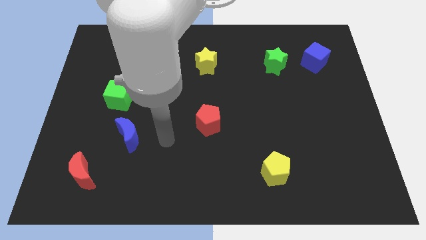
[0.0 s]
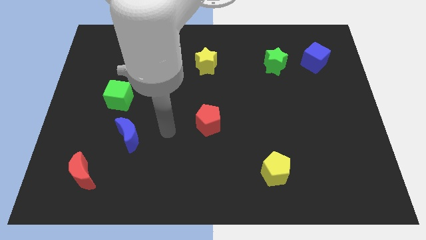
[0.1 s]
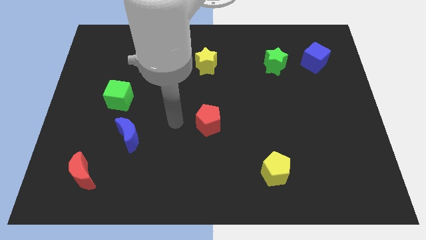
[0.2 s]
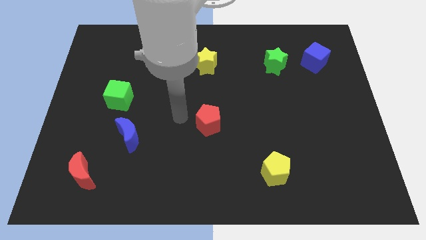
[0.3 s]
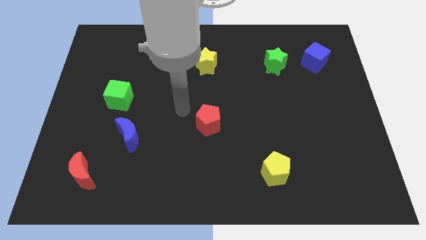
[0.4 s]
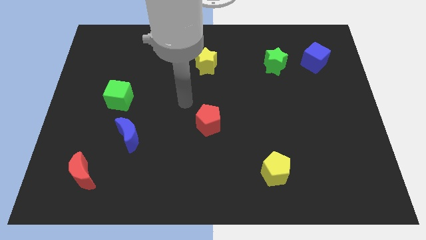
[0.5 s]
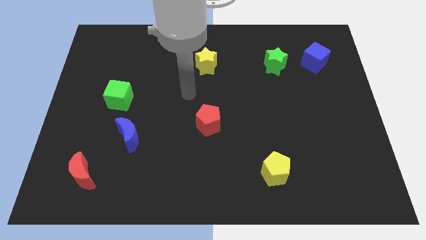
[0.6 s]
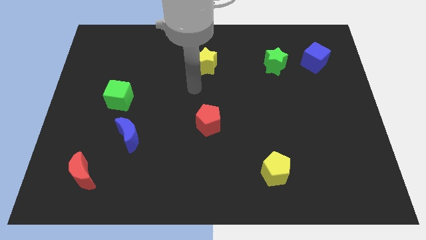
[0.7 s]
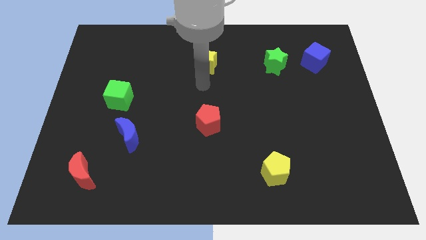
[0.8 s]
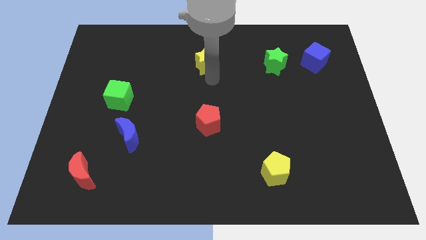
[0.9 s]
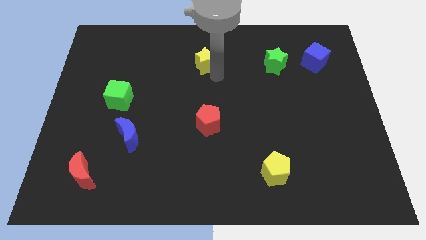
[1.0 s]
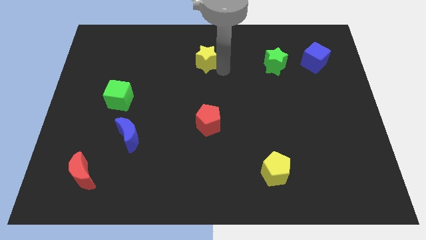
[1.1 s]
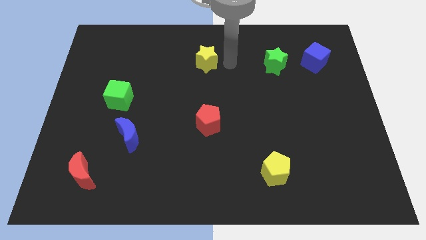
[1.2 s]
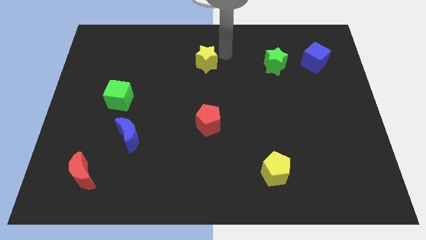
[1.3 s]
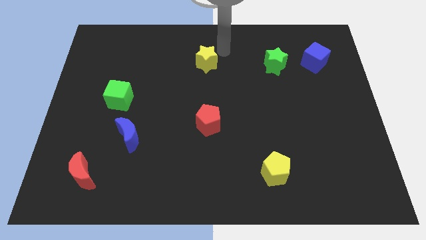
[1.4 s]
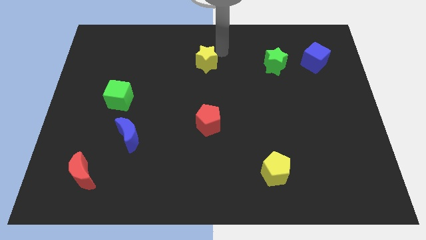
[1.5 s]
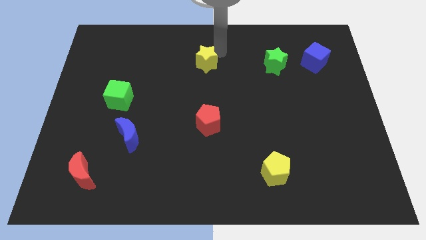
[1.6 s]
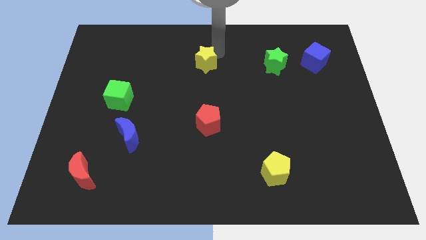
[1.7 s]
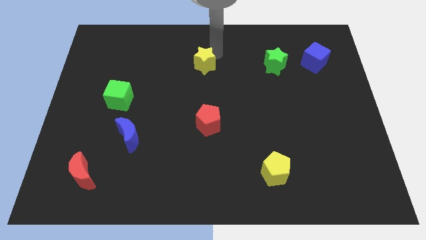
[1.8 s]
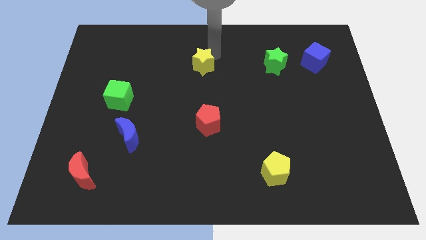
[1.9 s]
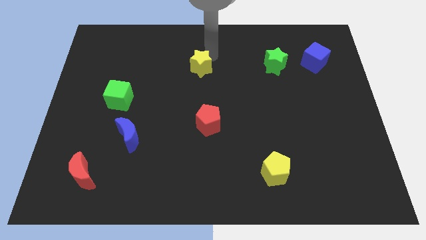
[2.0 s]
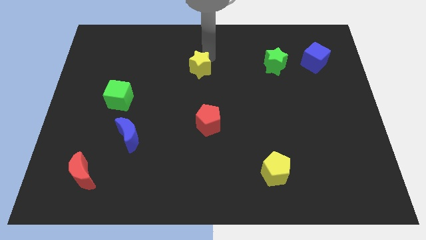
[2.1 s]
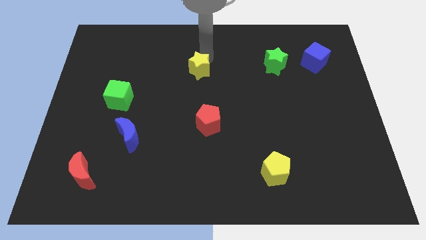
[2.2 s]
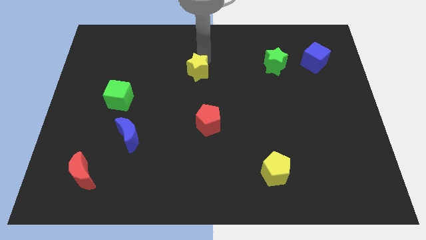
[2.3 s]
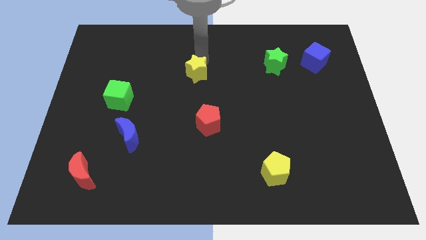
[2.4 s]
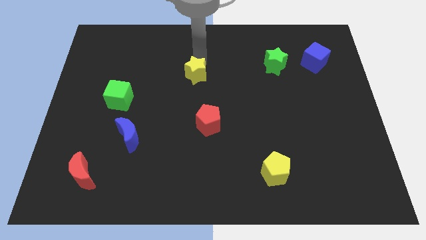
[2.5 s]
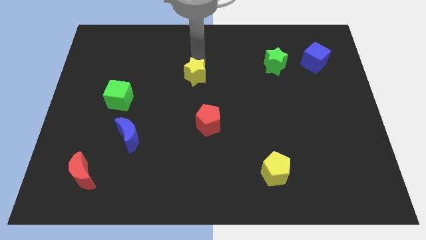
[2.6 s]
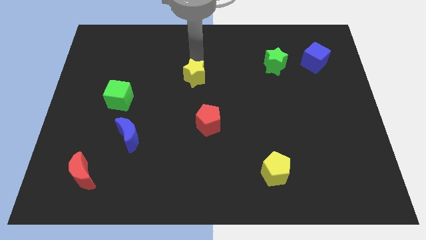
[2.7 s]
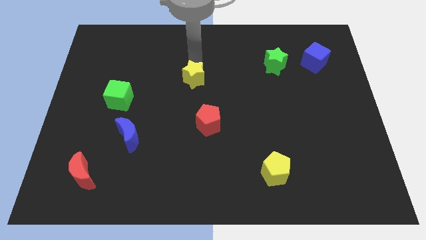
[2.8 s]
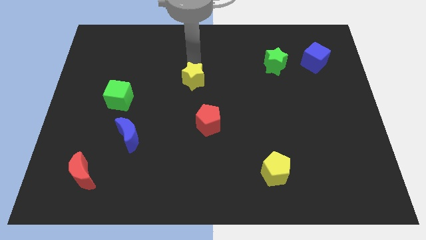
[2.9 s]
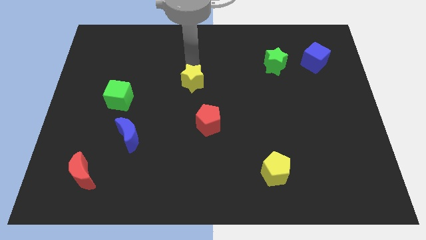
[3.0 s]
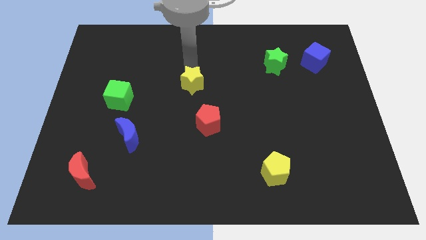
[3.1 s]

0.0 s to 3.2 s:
push the yellow star a little bit down and then left

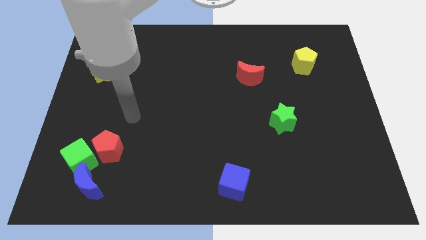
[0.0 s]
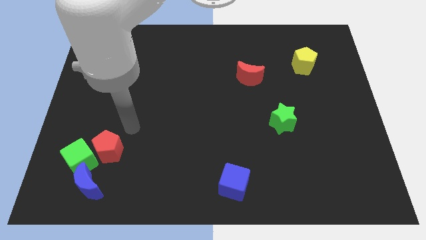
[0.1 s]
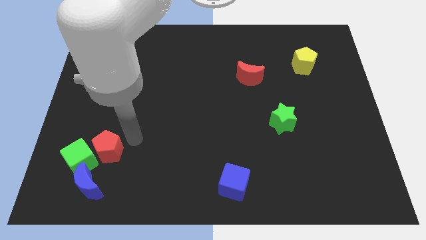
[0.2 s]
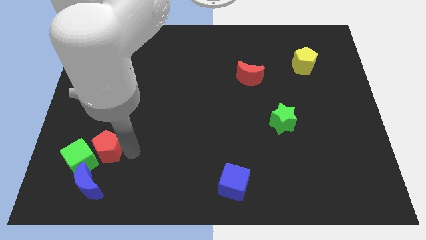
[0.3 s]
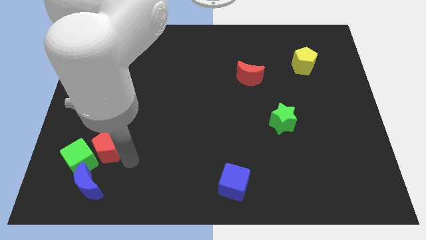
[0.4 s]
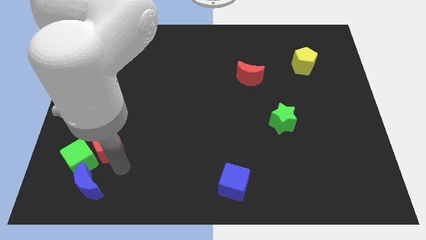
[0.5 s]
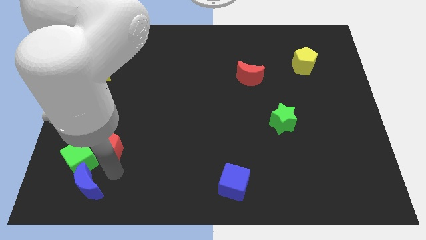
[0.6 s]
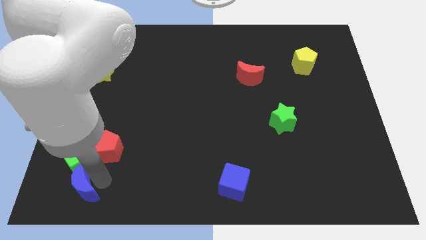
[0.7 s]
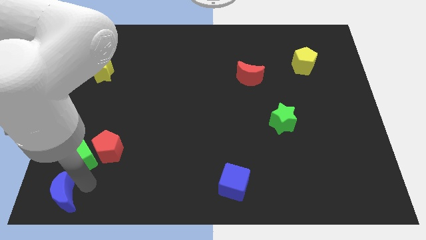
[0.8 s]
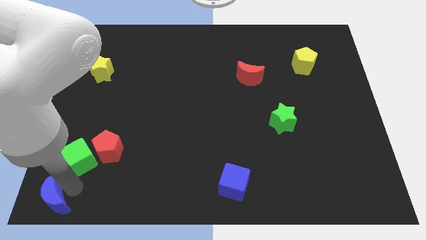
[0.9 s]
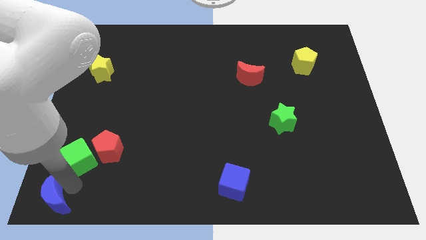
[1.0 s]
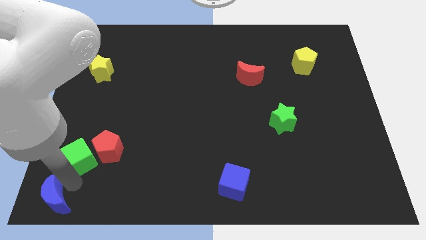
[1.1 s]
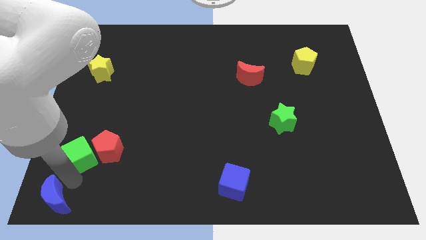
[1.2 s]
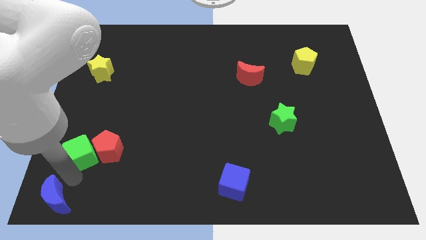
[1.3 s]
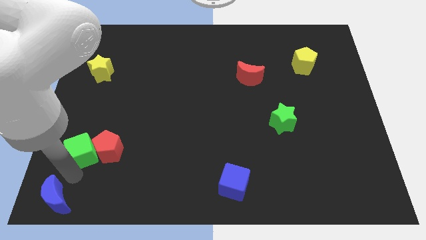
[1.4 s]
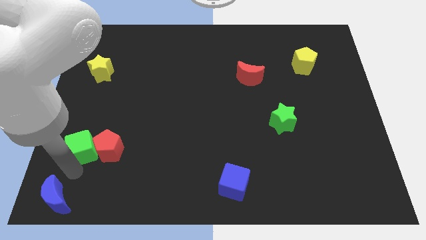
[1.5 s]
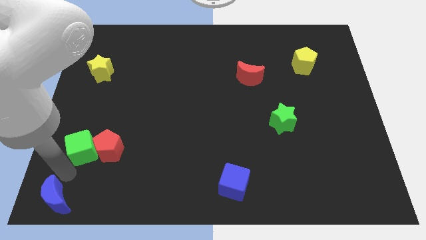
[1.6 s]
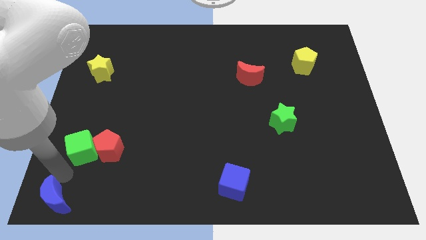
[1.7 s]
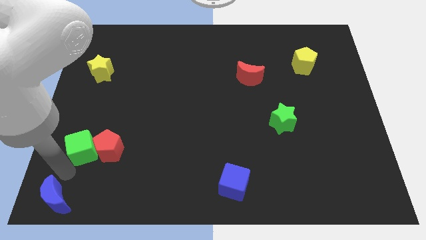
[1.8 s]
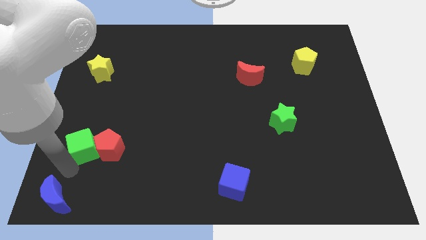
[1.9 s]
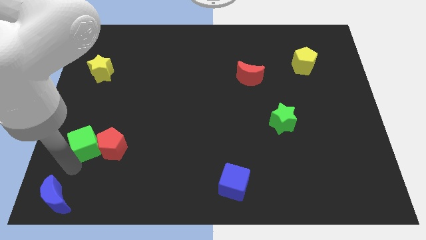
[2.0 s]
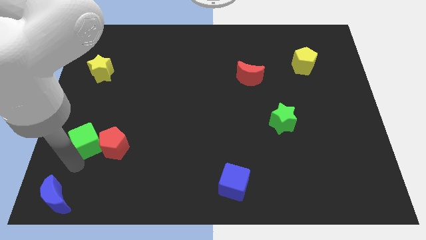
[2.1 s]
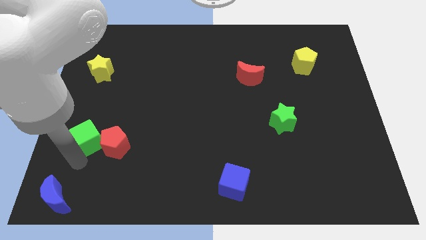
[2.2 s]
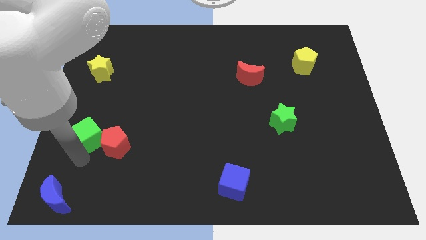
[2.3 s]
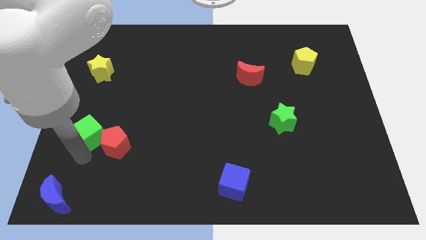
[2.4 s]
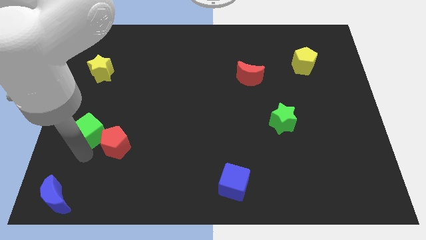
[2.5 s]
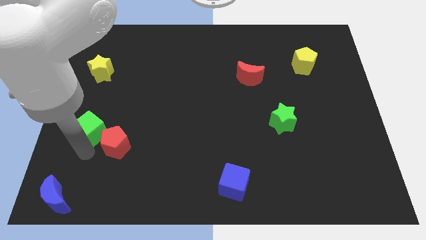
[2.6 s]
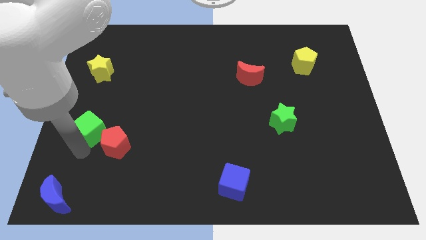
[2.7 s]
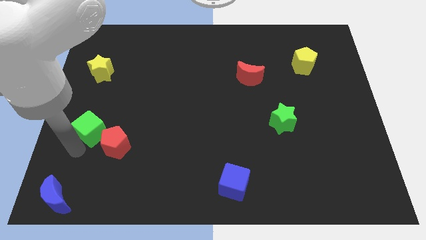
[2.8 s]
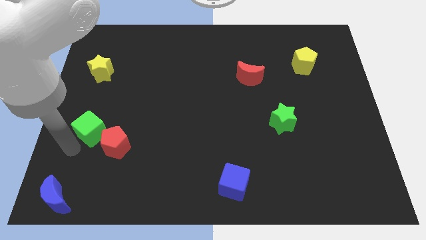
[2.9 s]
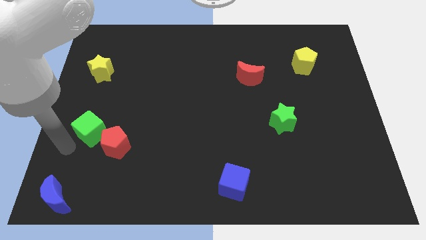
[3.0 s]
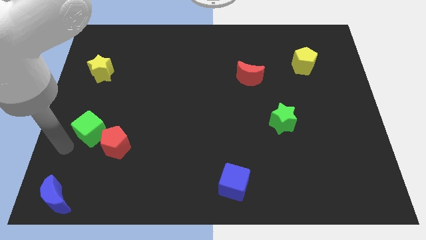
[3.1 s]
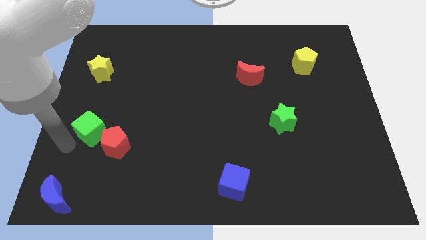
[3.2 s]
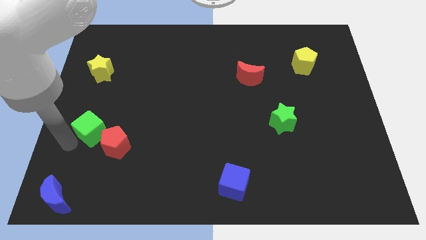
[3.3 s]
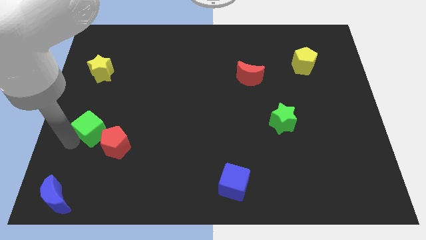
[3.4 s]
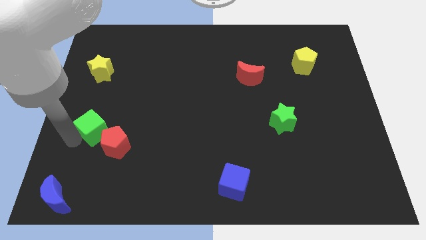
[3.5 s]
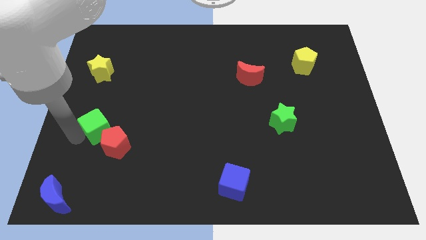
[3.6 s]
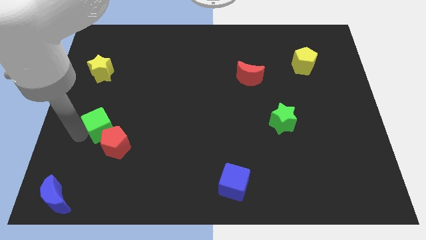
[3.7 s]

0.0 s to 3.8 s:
move the green cube slightly diagonally up and right

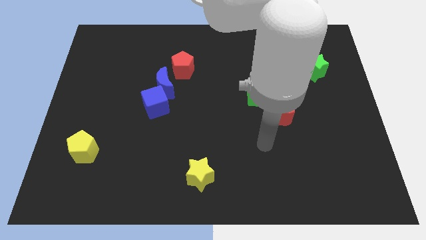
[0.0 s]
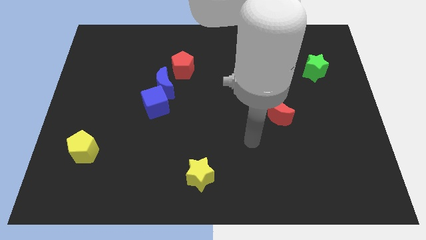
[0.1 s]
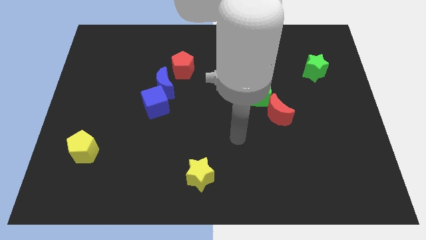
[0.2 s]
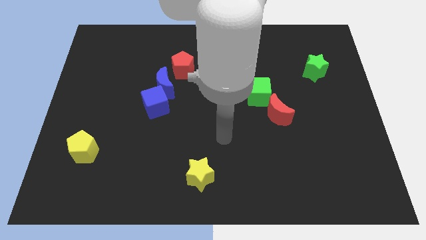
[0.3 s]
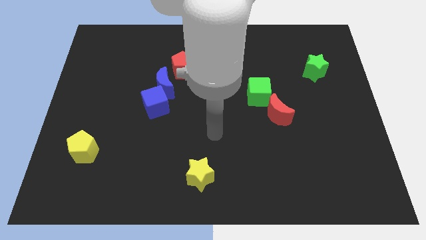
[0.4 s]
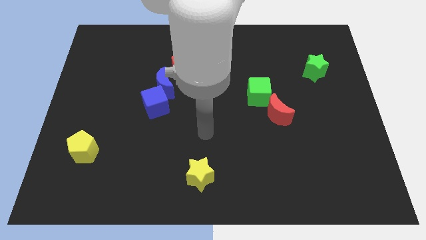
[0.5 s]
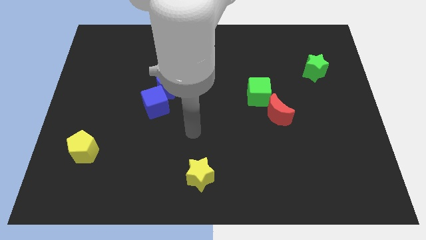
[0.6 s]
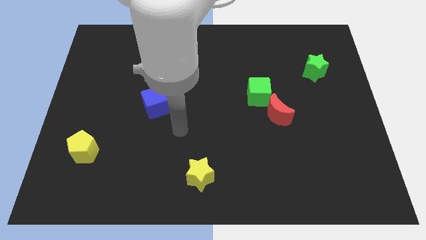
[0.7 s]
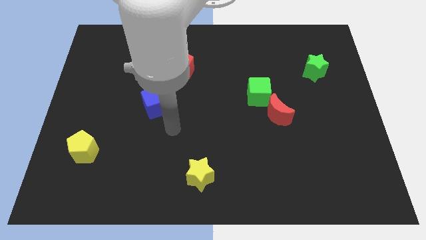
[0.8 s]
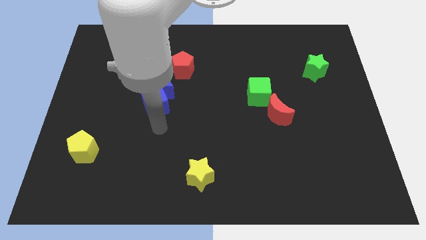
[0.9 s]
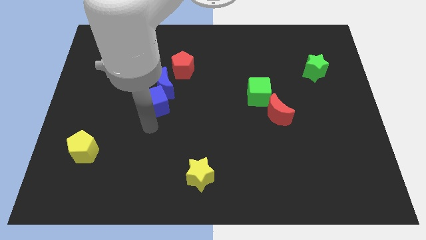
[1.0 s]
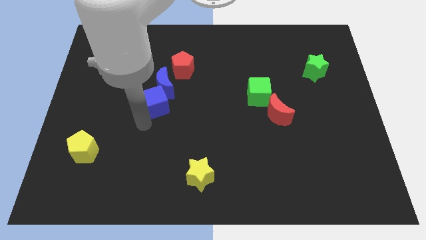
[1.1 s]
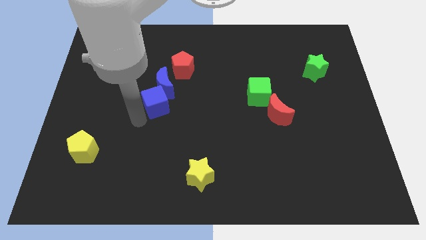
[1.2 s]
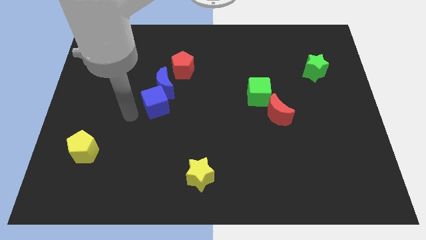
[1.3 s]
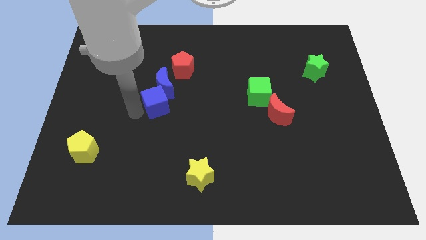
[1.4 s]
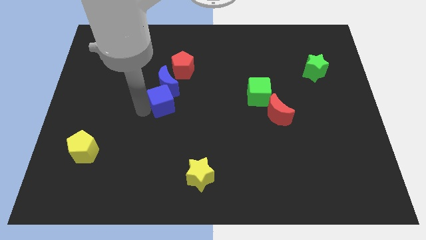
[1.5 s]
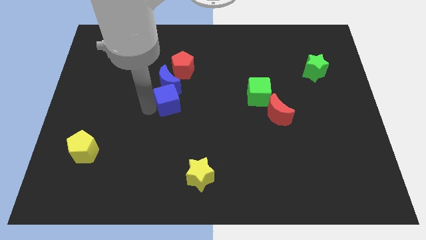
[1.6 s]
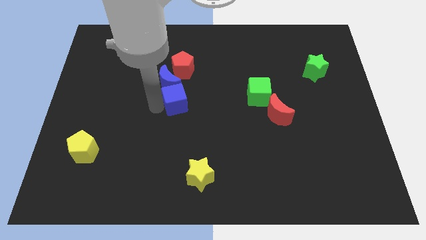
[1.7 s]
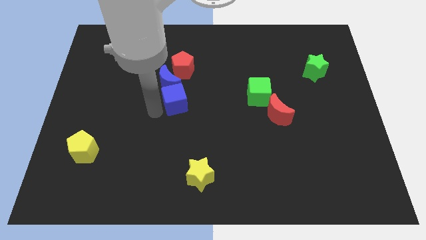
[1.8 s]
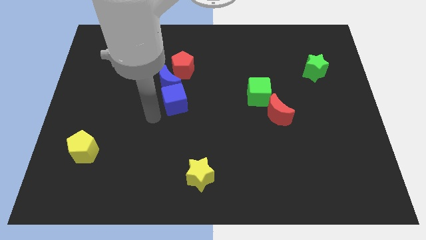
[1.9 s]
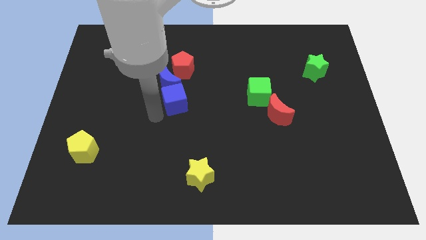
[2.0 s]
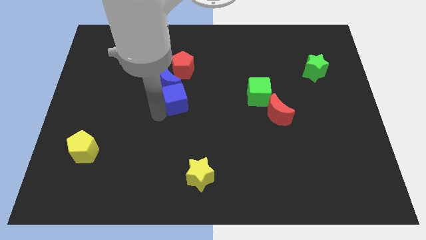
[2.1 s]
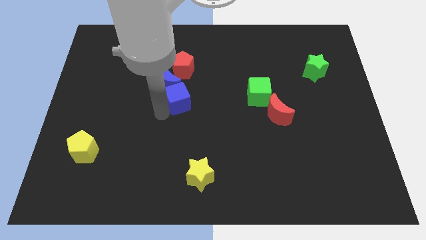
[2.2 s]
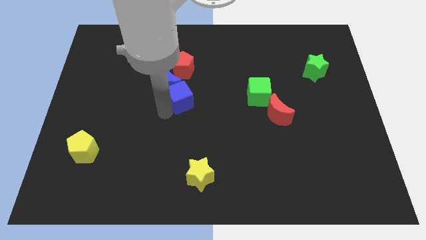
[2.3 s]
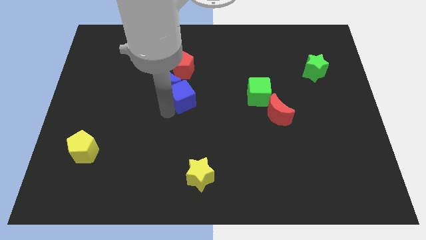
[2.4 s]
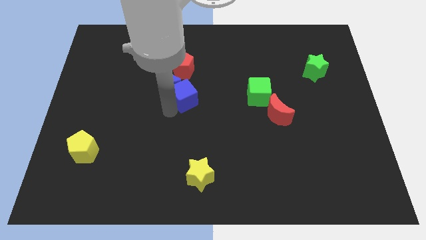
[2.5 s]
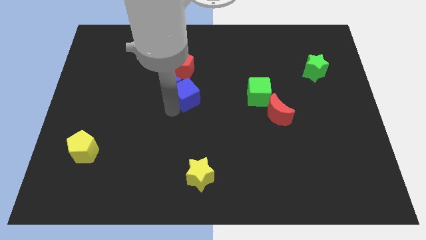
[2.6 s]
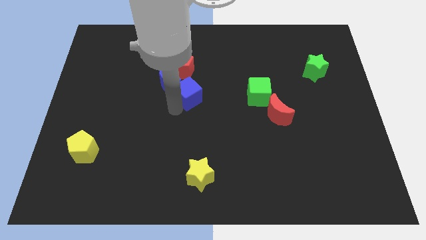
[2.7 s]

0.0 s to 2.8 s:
push the blue cube a little bit up and right
